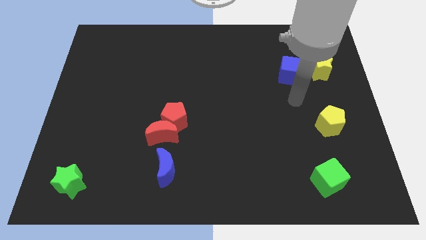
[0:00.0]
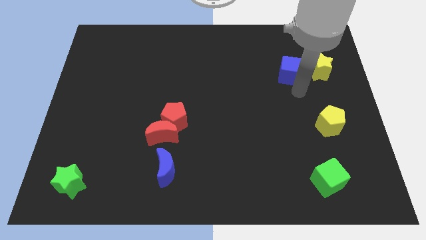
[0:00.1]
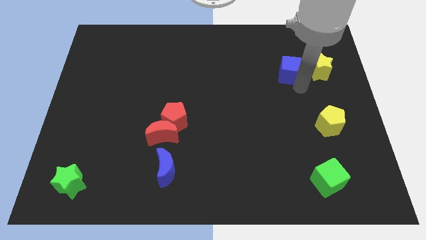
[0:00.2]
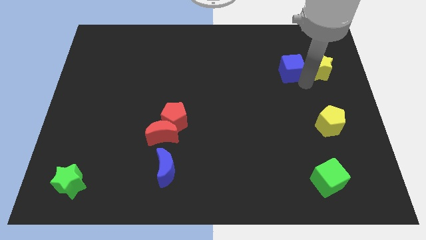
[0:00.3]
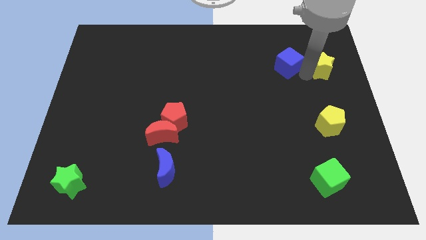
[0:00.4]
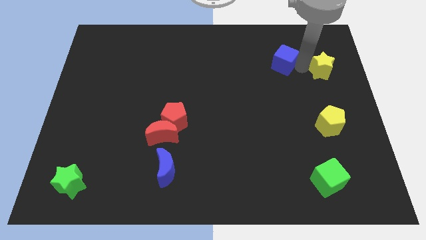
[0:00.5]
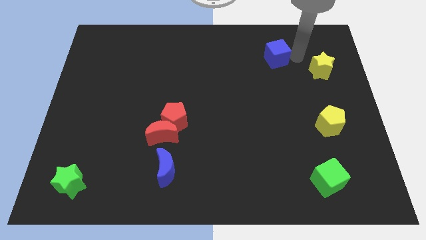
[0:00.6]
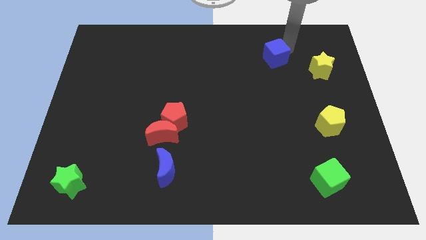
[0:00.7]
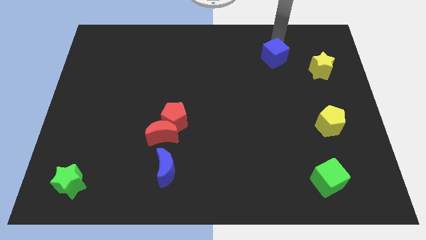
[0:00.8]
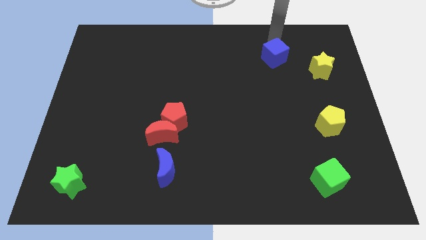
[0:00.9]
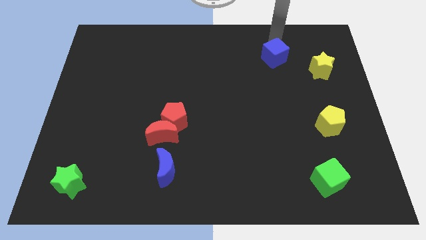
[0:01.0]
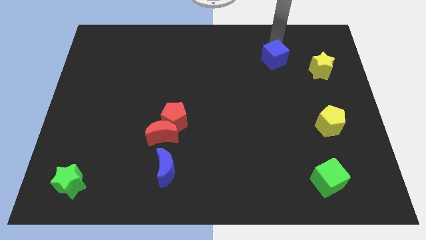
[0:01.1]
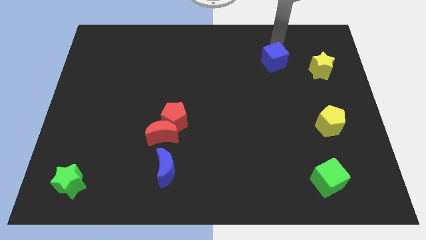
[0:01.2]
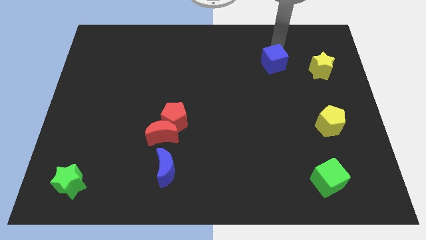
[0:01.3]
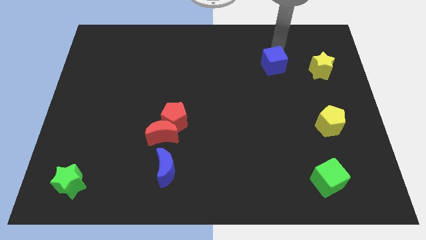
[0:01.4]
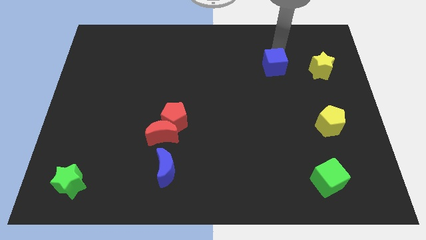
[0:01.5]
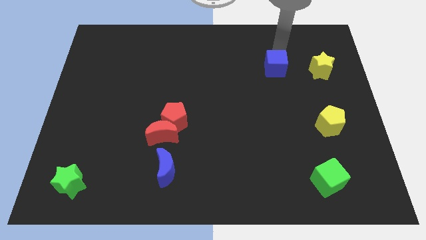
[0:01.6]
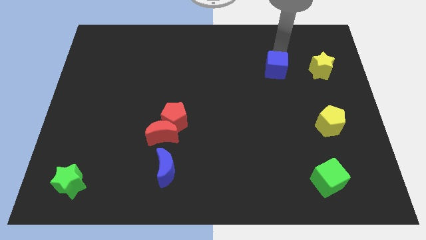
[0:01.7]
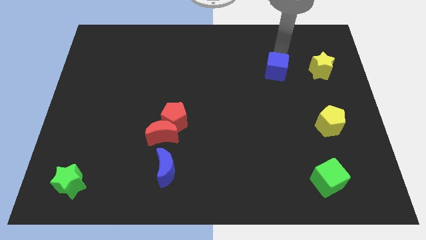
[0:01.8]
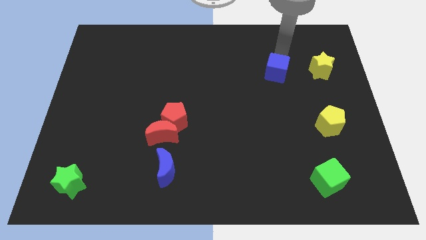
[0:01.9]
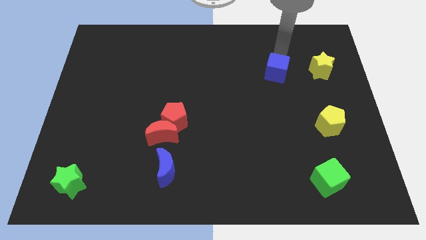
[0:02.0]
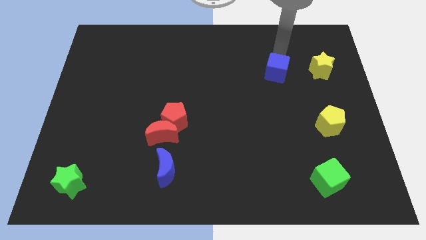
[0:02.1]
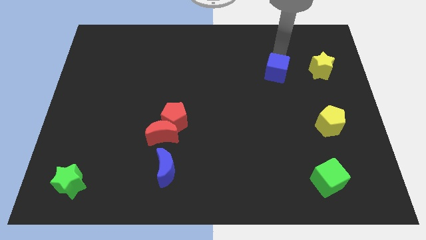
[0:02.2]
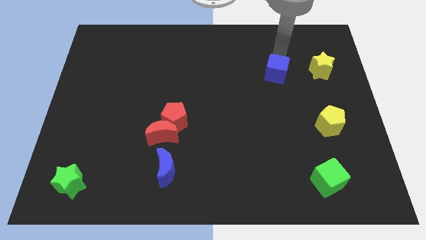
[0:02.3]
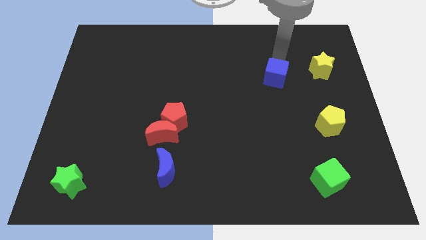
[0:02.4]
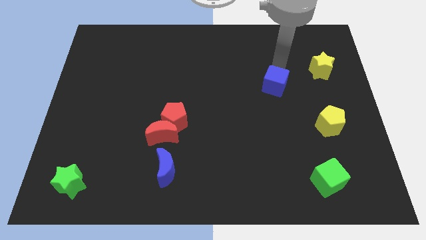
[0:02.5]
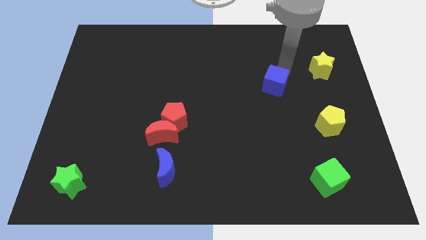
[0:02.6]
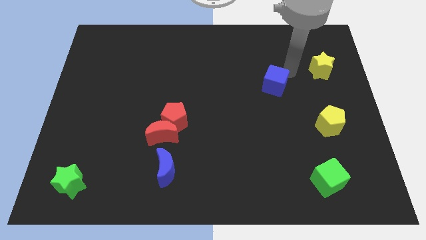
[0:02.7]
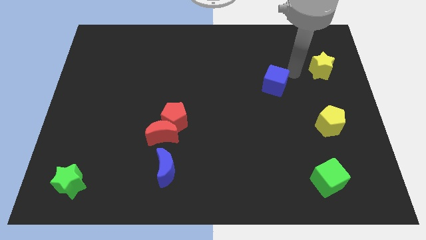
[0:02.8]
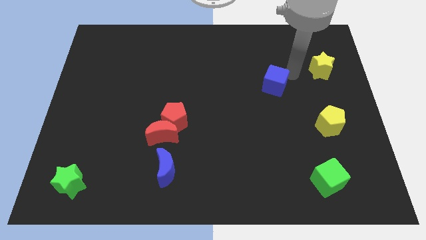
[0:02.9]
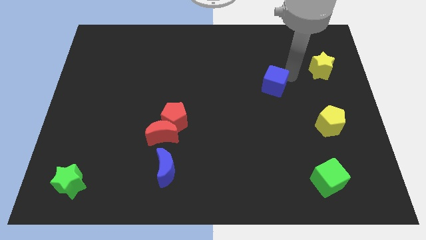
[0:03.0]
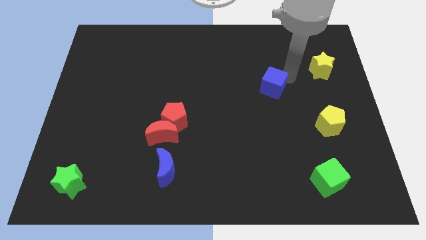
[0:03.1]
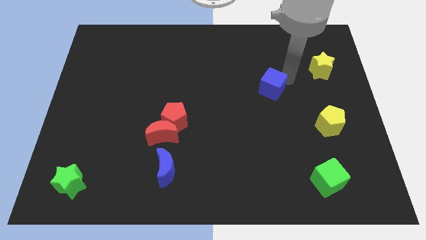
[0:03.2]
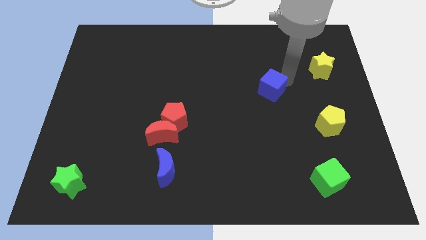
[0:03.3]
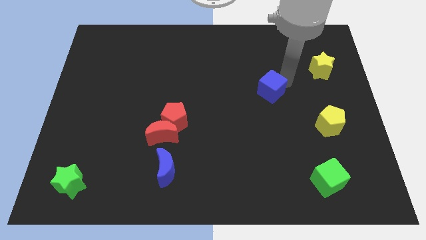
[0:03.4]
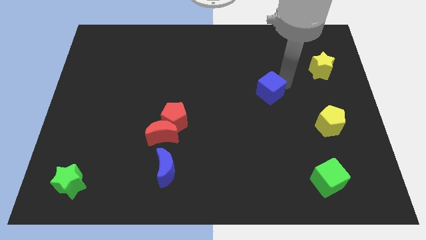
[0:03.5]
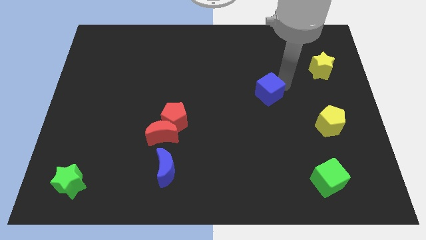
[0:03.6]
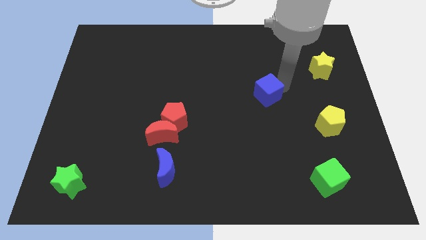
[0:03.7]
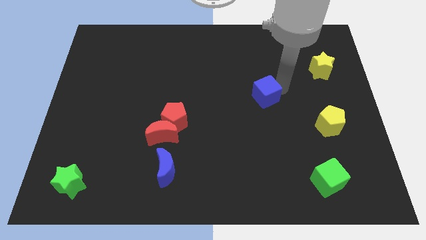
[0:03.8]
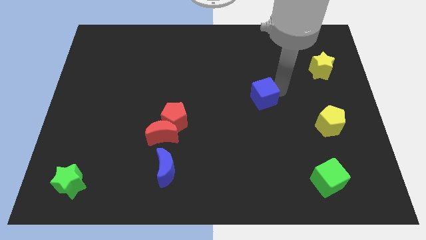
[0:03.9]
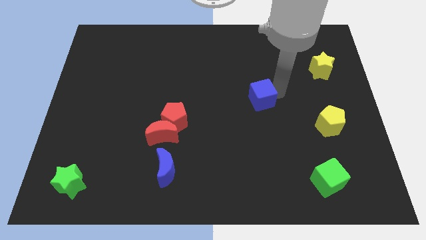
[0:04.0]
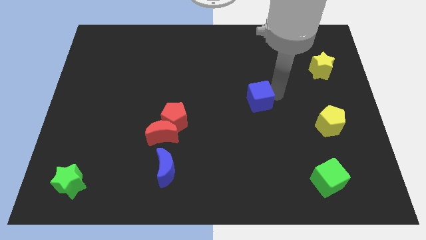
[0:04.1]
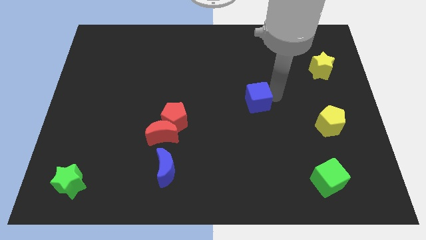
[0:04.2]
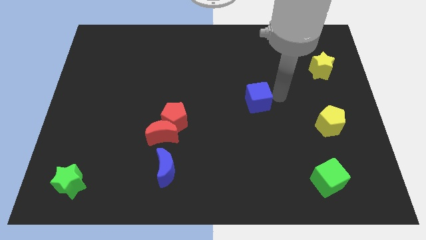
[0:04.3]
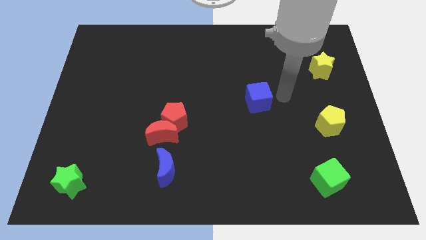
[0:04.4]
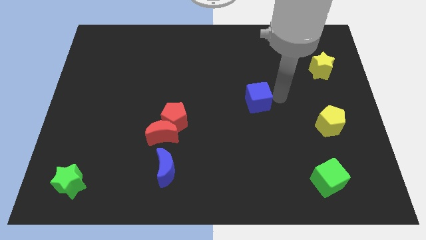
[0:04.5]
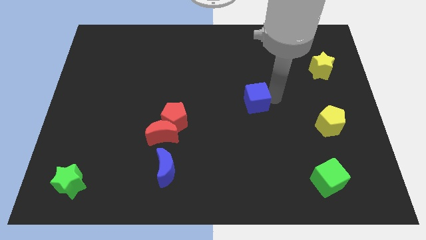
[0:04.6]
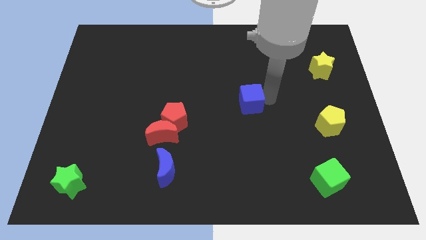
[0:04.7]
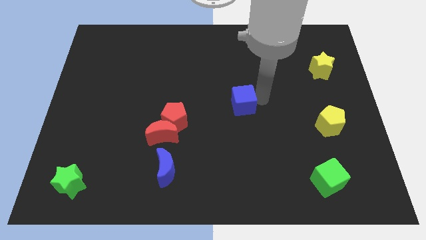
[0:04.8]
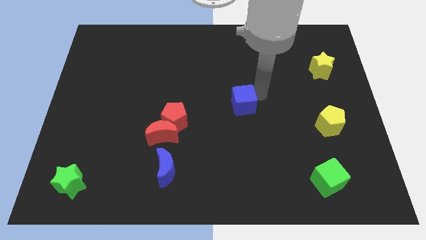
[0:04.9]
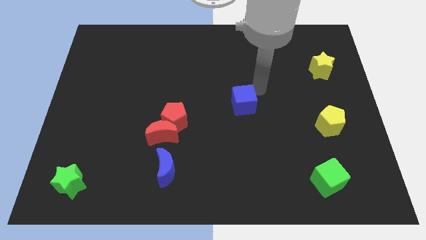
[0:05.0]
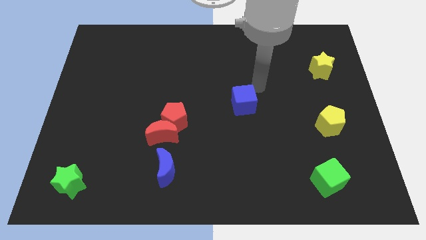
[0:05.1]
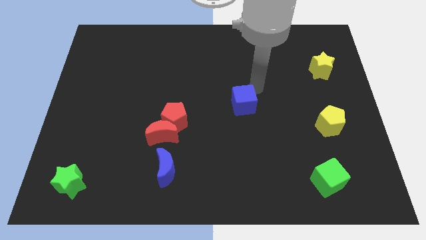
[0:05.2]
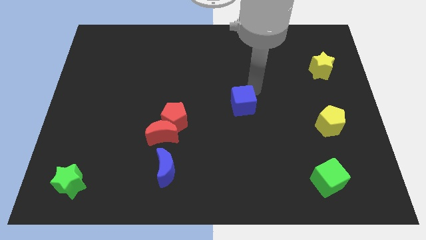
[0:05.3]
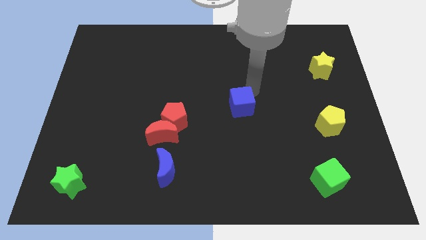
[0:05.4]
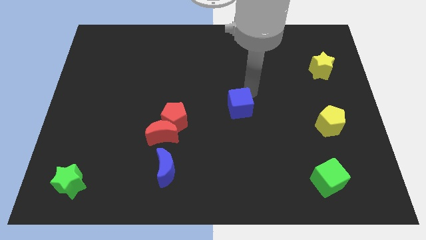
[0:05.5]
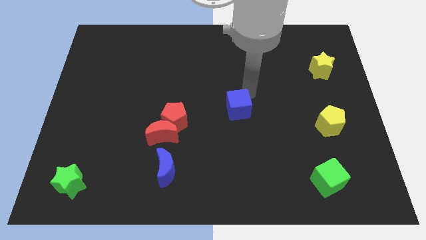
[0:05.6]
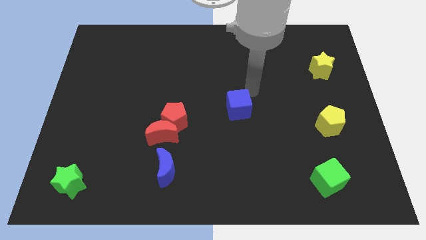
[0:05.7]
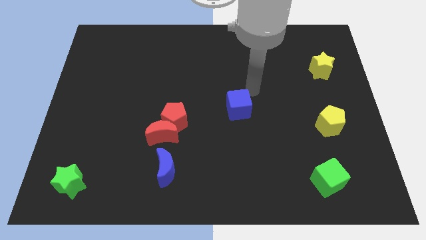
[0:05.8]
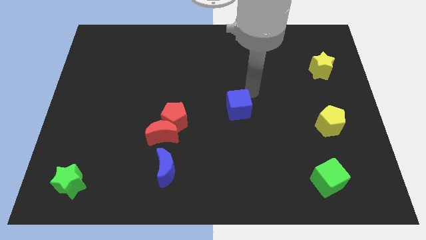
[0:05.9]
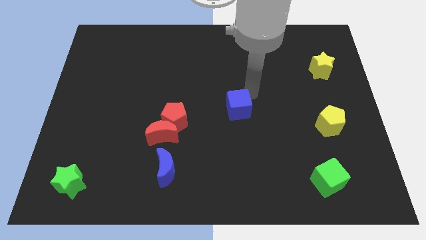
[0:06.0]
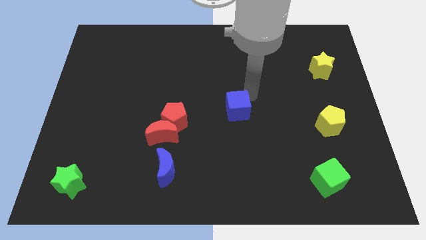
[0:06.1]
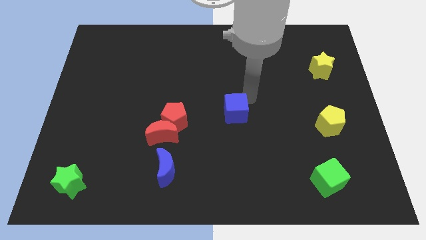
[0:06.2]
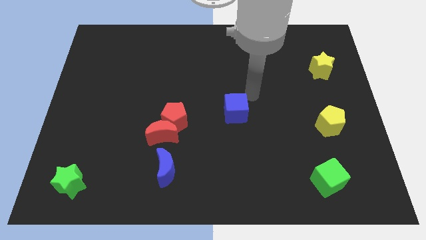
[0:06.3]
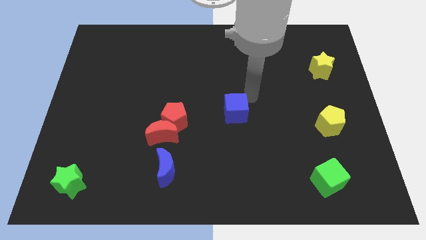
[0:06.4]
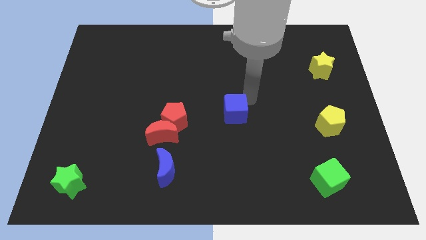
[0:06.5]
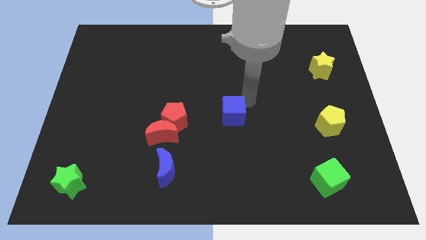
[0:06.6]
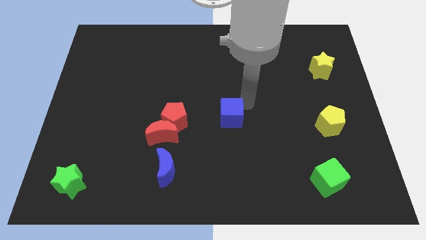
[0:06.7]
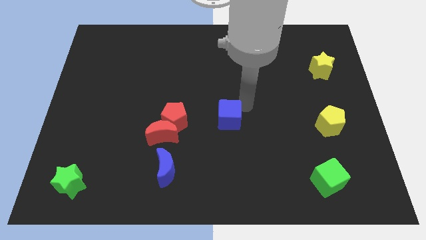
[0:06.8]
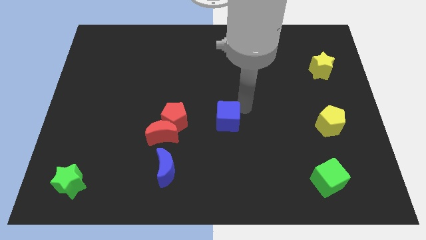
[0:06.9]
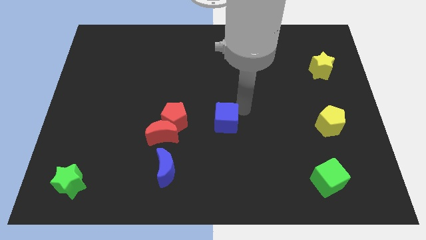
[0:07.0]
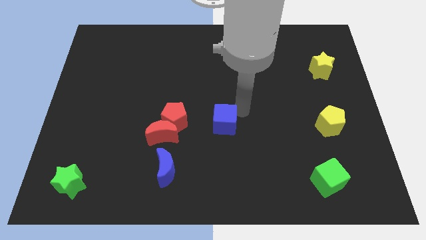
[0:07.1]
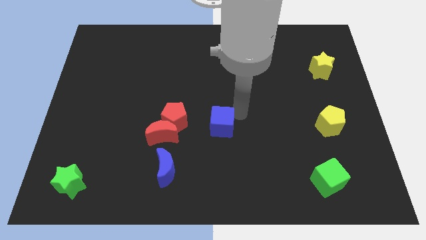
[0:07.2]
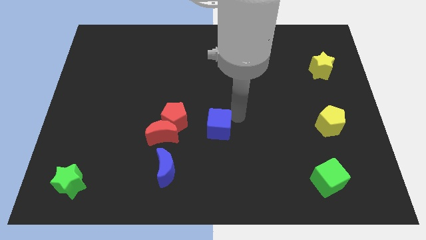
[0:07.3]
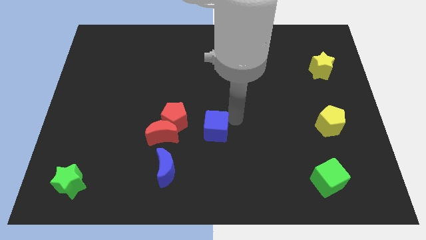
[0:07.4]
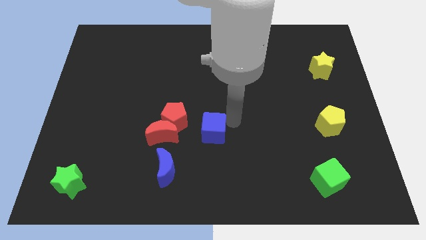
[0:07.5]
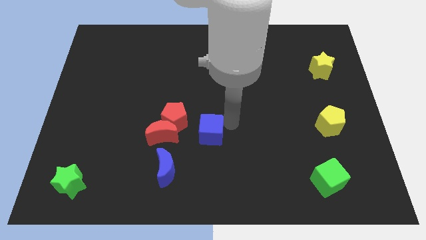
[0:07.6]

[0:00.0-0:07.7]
slide the blue cube diagonally up and to the right of the blue moon

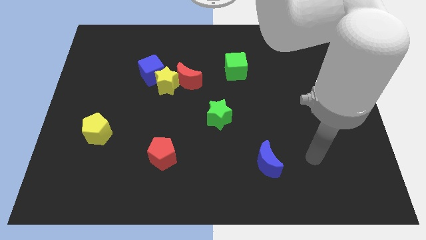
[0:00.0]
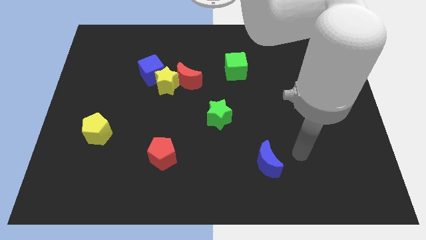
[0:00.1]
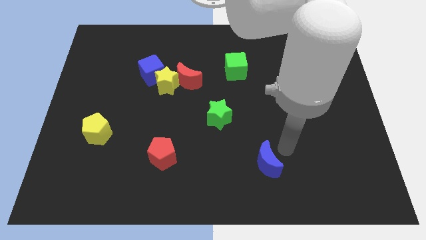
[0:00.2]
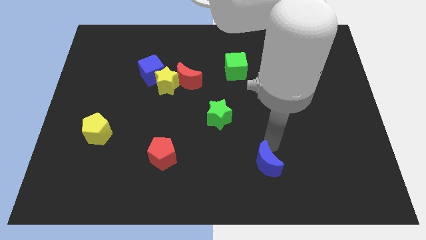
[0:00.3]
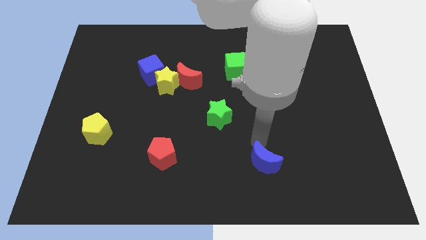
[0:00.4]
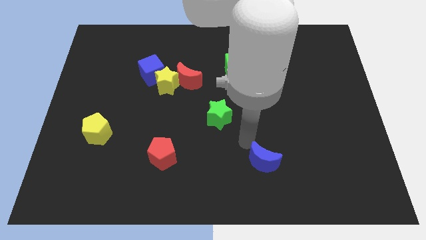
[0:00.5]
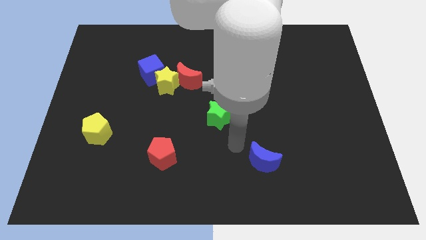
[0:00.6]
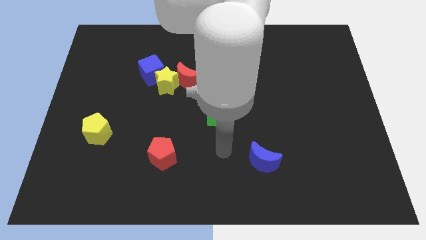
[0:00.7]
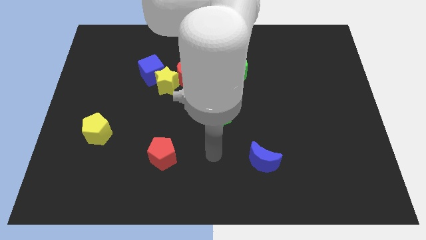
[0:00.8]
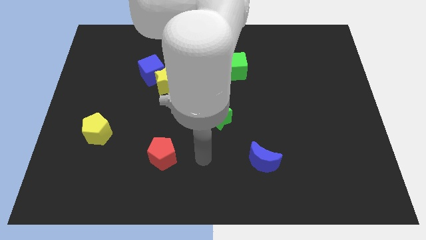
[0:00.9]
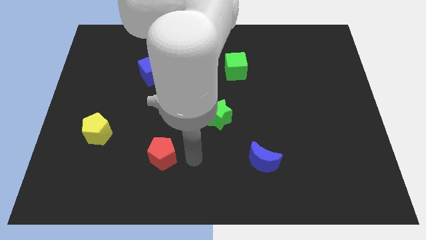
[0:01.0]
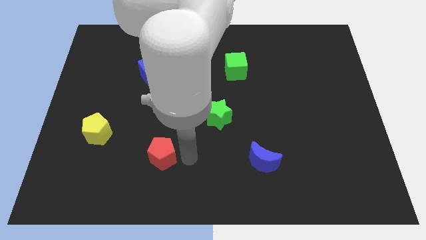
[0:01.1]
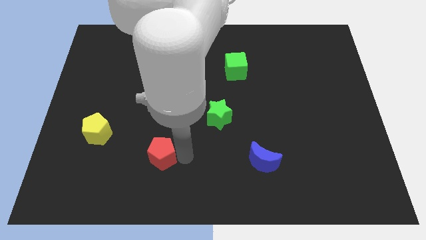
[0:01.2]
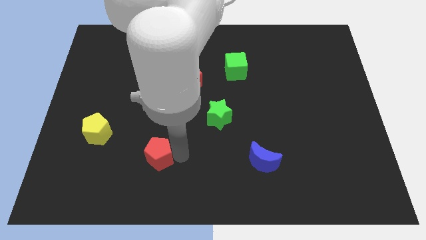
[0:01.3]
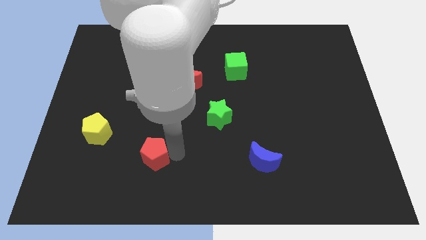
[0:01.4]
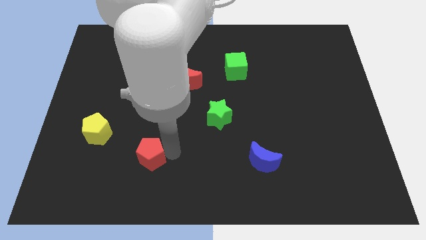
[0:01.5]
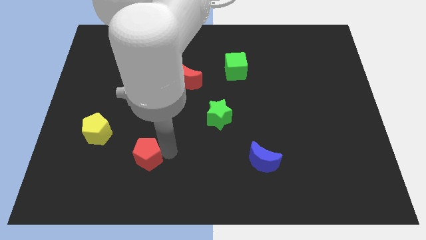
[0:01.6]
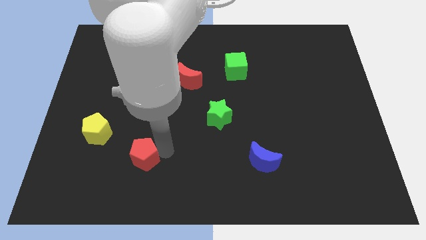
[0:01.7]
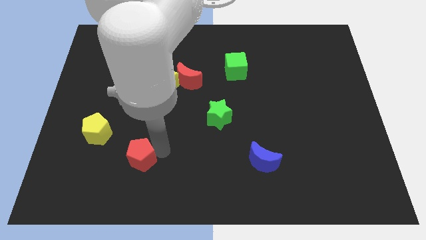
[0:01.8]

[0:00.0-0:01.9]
slide the red pentagon diagonally down and to the right of the yellow pentagon
